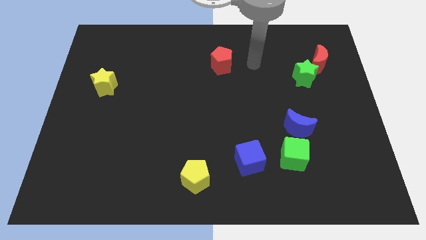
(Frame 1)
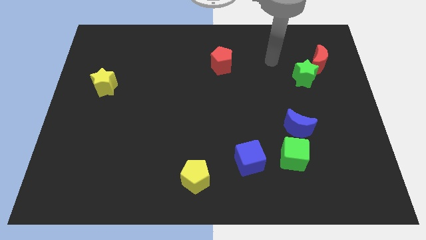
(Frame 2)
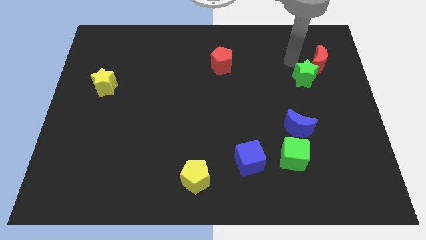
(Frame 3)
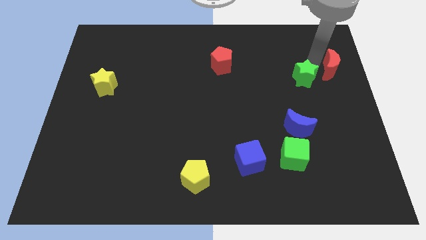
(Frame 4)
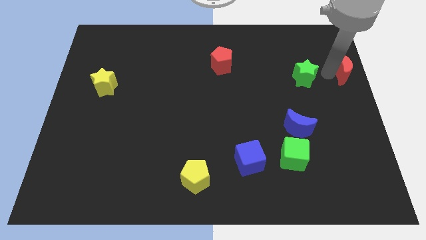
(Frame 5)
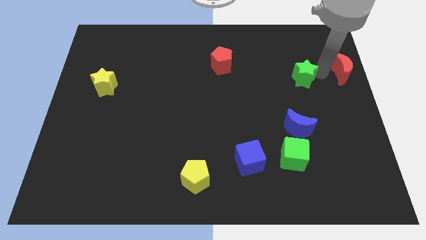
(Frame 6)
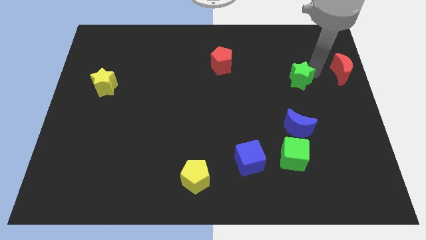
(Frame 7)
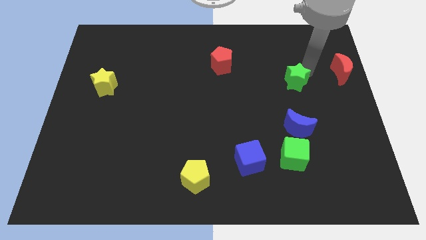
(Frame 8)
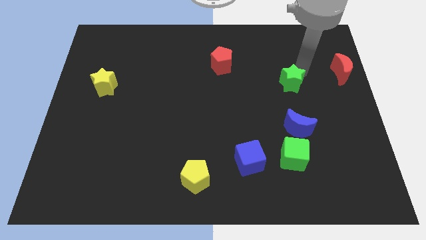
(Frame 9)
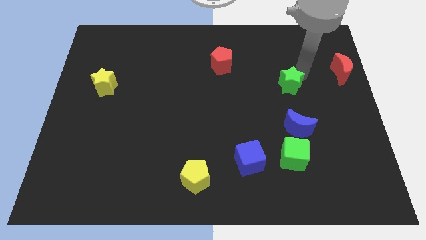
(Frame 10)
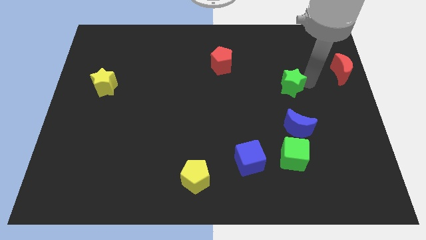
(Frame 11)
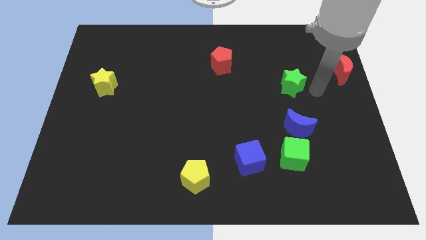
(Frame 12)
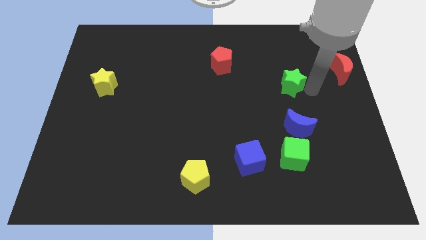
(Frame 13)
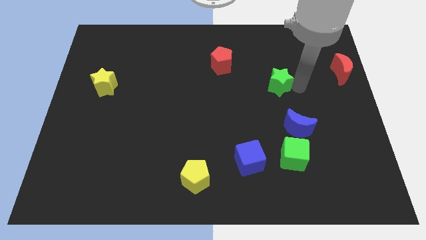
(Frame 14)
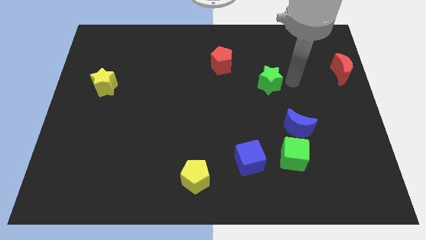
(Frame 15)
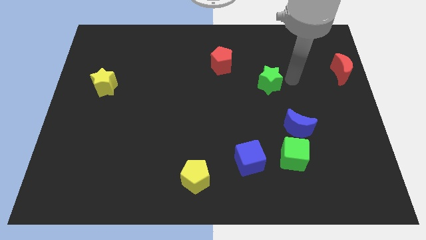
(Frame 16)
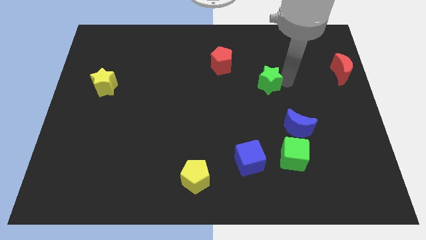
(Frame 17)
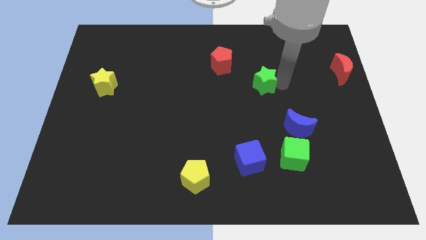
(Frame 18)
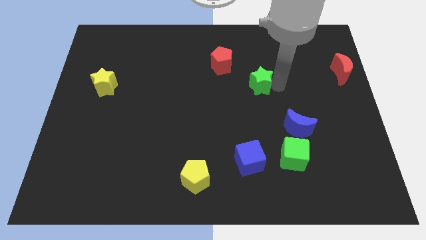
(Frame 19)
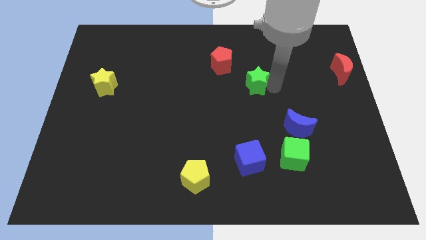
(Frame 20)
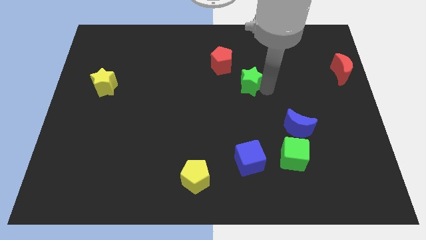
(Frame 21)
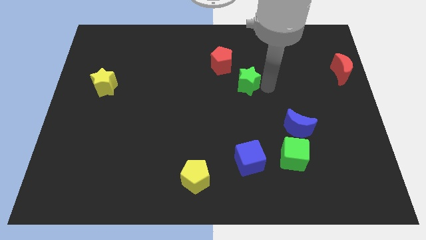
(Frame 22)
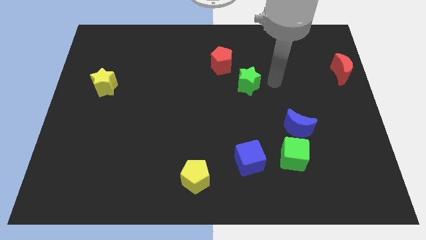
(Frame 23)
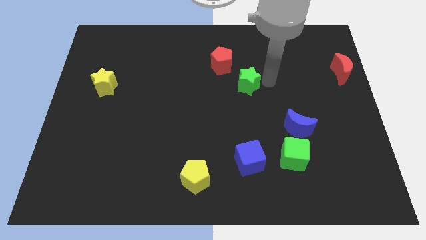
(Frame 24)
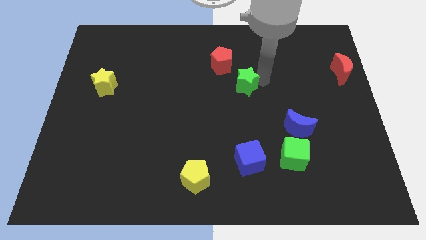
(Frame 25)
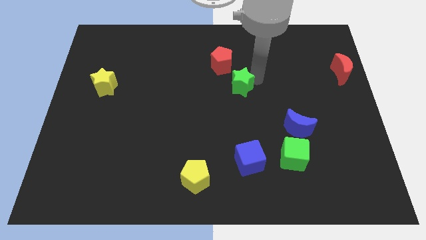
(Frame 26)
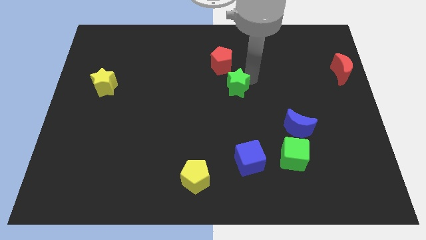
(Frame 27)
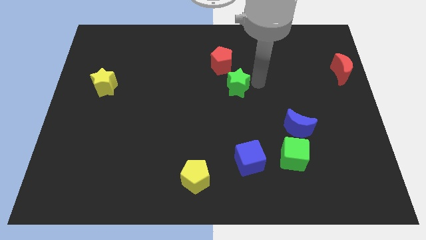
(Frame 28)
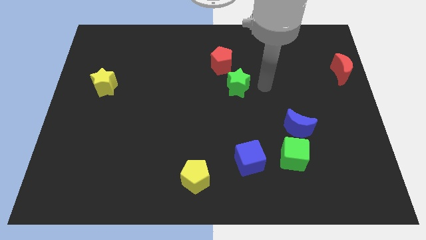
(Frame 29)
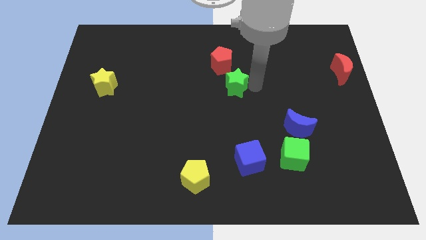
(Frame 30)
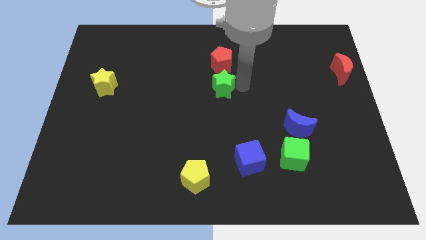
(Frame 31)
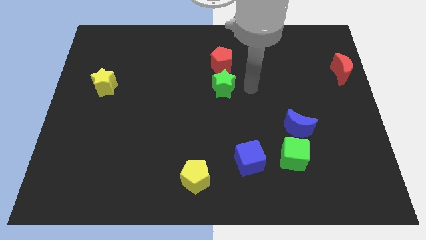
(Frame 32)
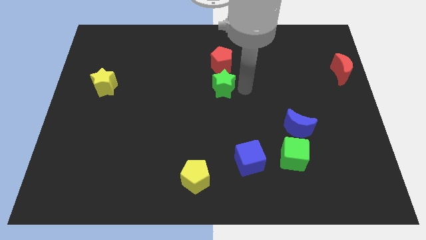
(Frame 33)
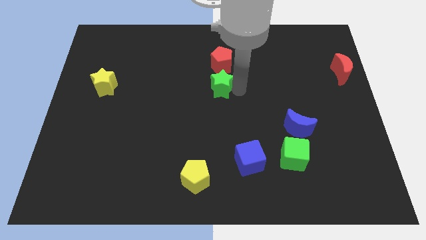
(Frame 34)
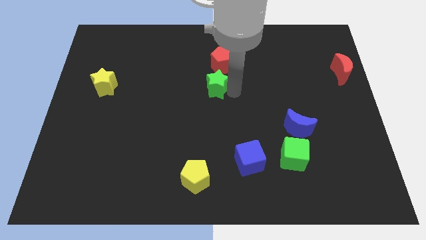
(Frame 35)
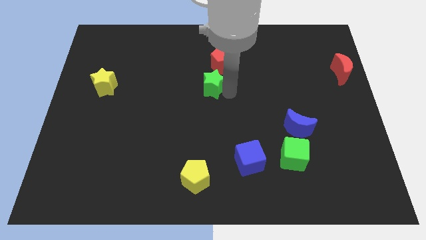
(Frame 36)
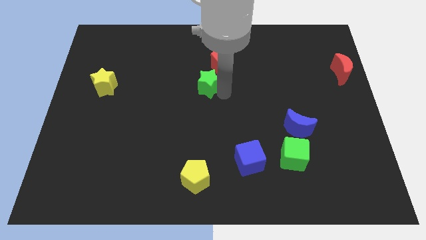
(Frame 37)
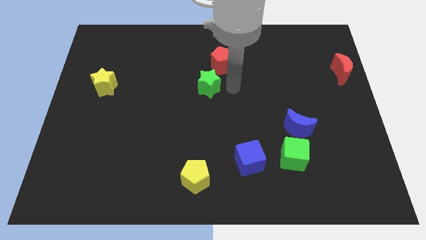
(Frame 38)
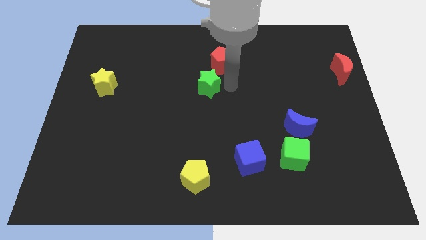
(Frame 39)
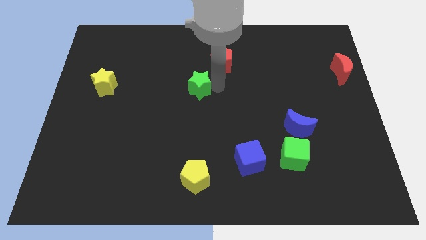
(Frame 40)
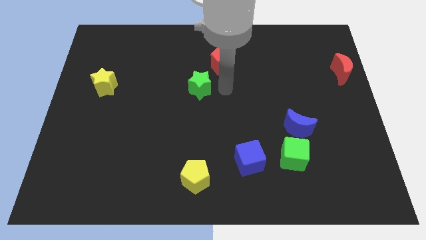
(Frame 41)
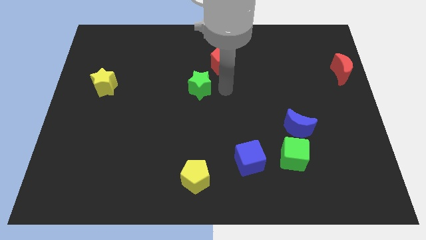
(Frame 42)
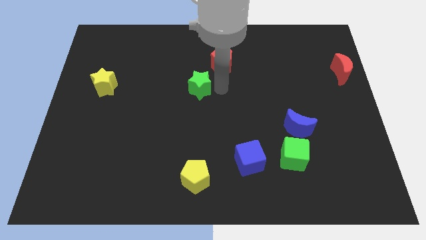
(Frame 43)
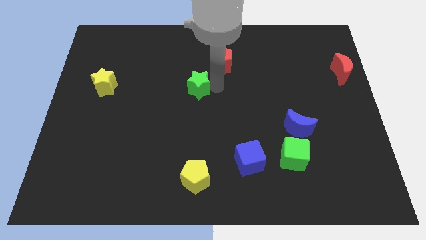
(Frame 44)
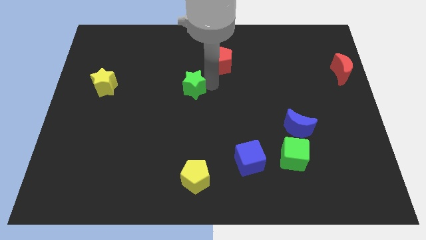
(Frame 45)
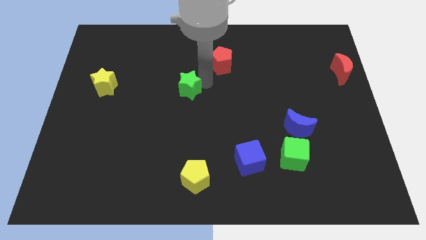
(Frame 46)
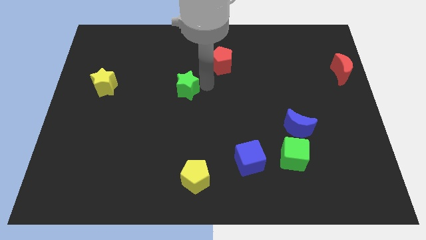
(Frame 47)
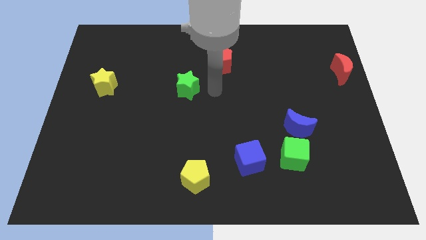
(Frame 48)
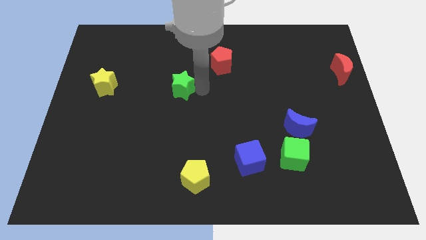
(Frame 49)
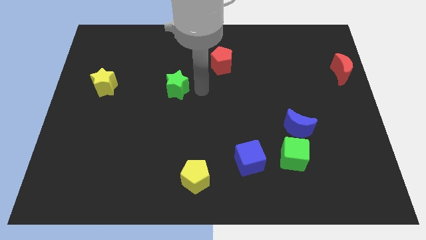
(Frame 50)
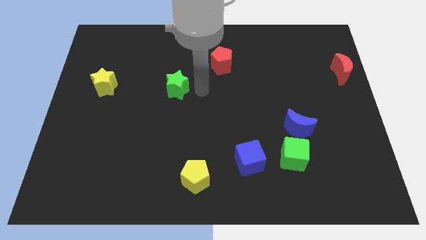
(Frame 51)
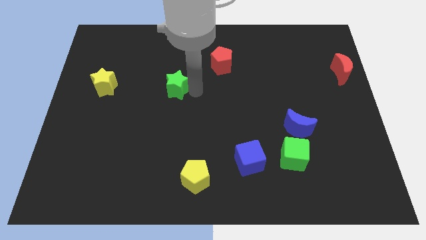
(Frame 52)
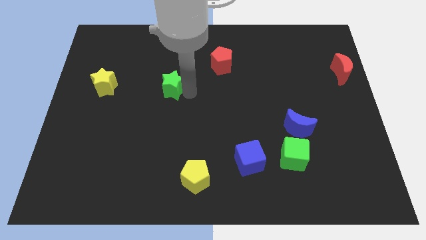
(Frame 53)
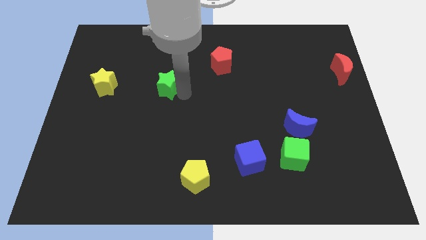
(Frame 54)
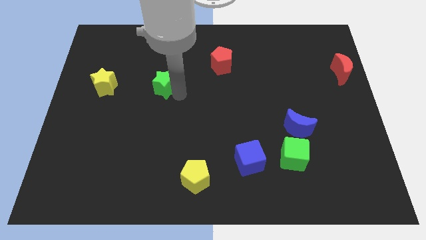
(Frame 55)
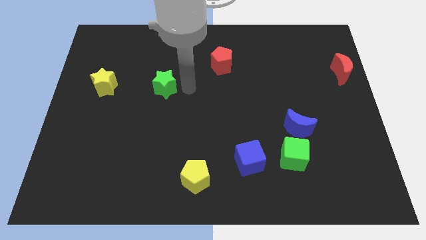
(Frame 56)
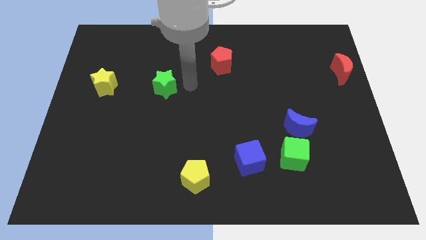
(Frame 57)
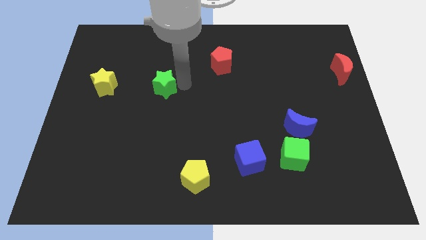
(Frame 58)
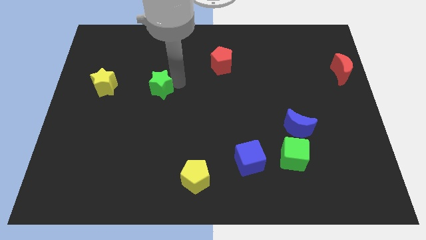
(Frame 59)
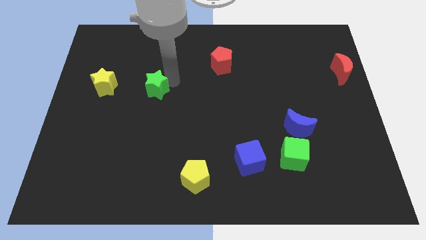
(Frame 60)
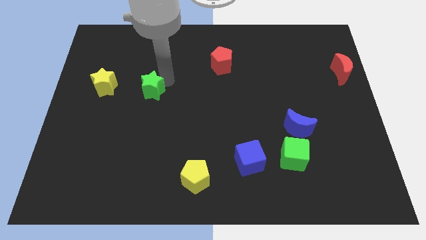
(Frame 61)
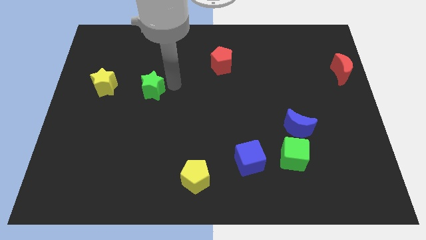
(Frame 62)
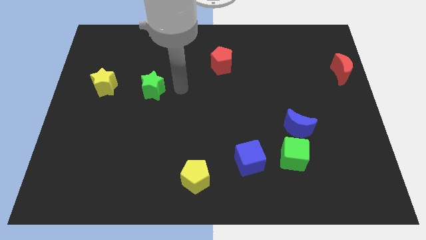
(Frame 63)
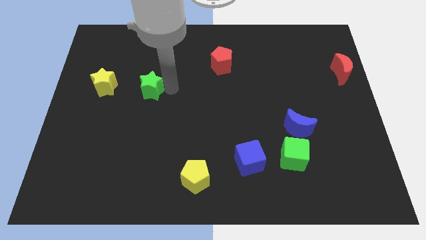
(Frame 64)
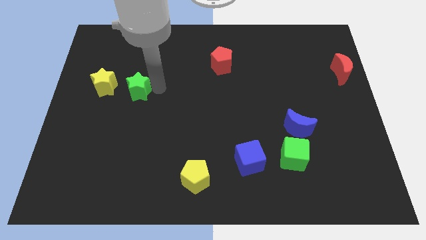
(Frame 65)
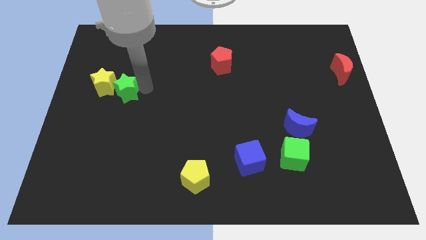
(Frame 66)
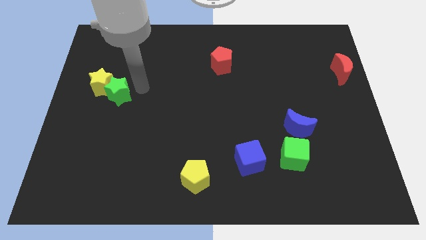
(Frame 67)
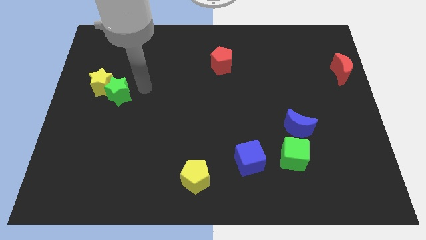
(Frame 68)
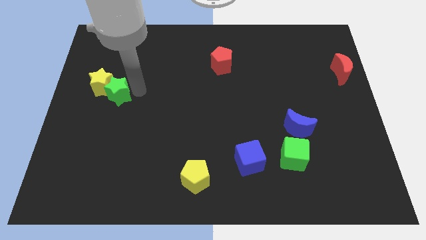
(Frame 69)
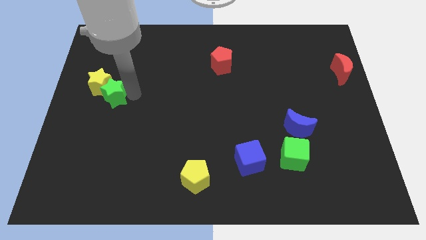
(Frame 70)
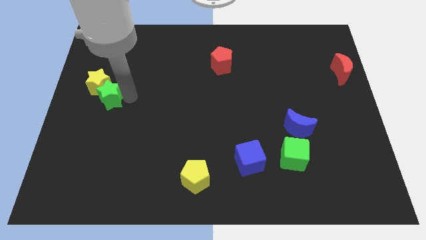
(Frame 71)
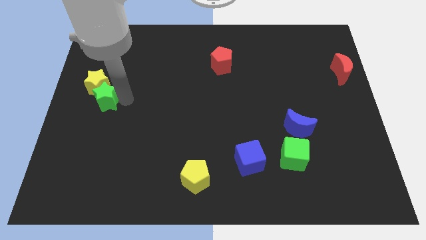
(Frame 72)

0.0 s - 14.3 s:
move the green star to the center left
